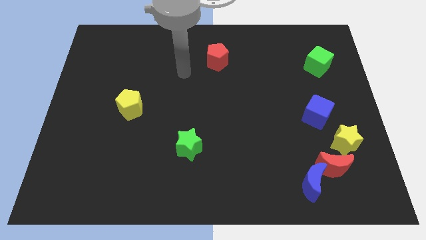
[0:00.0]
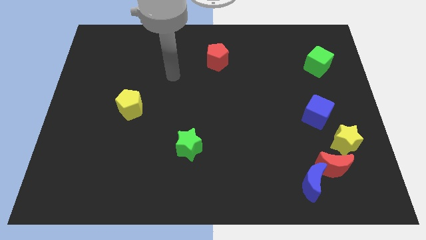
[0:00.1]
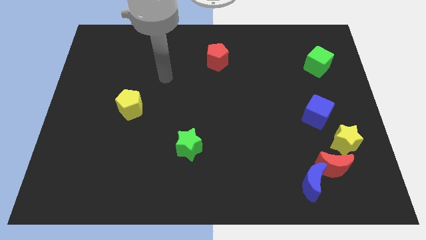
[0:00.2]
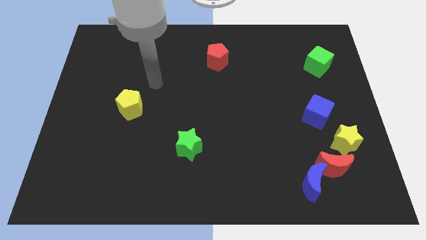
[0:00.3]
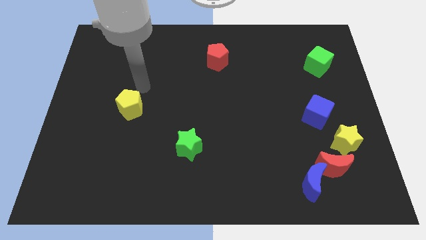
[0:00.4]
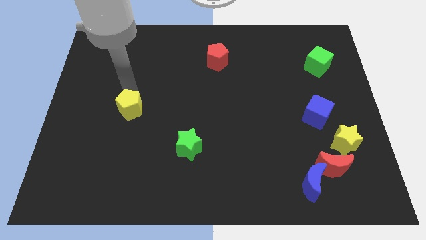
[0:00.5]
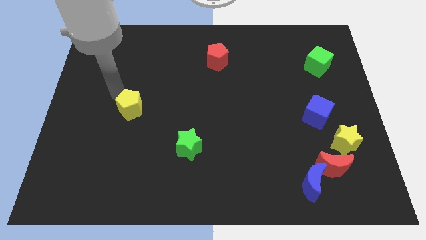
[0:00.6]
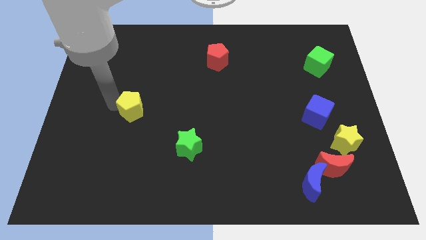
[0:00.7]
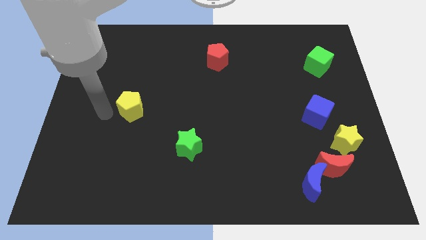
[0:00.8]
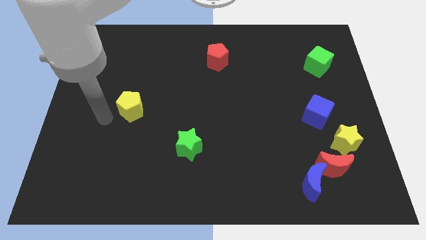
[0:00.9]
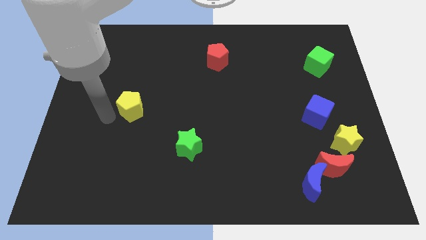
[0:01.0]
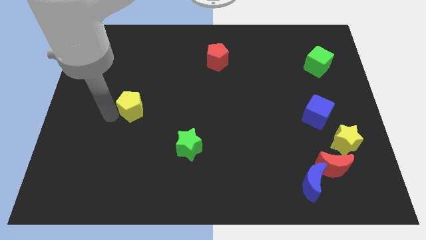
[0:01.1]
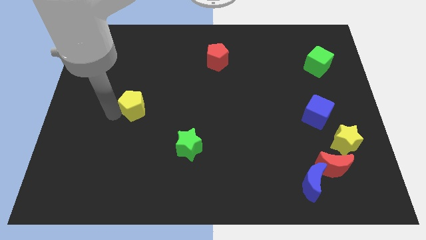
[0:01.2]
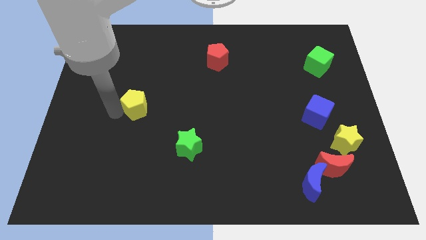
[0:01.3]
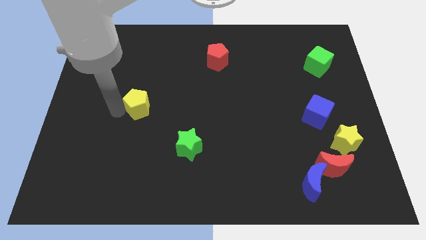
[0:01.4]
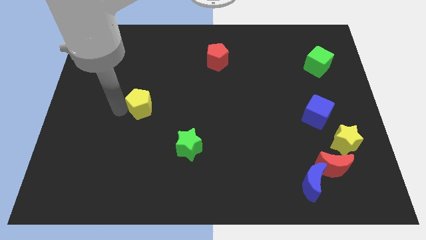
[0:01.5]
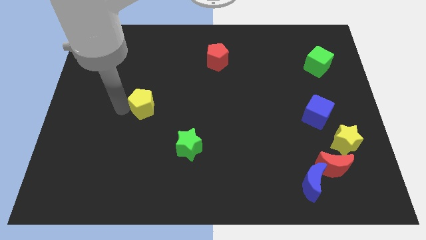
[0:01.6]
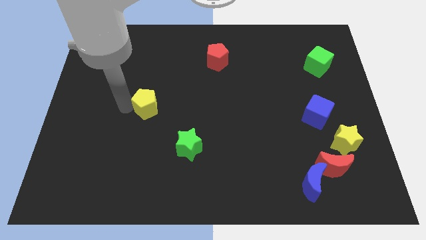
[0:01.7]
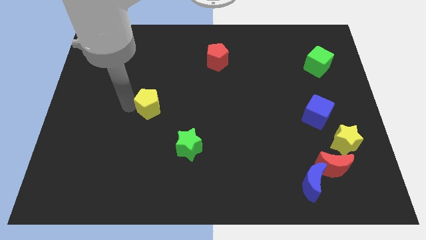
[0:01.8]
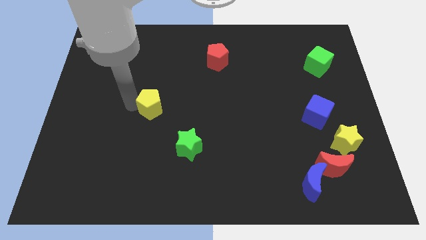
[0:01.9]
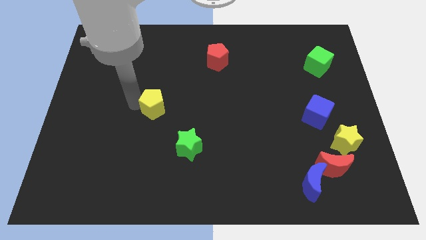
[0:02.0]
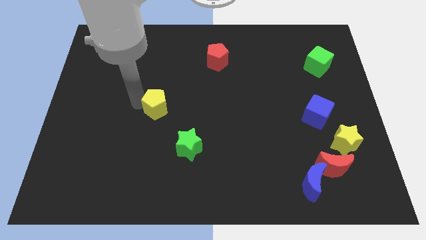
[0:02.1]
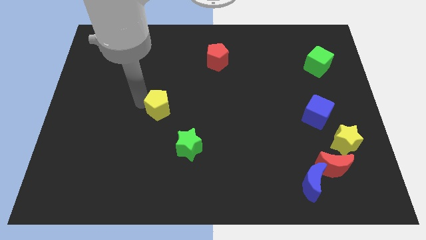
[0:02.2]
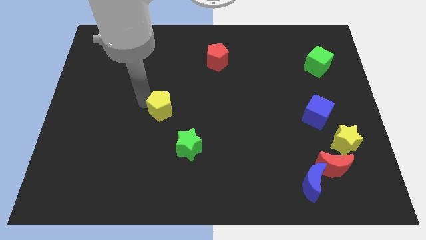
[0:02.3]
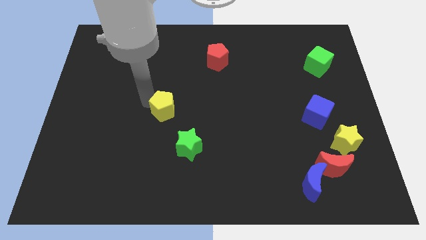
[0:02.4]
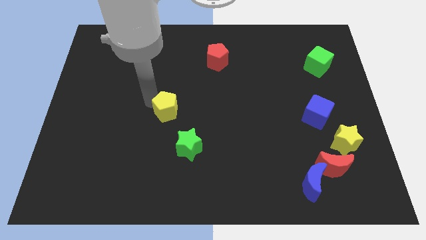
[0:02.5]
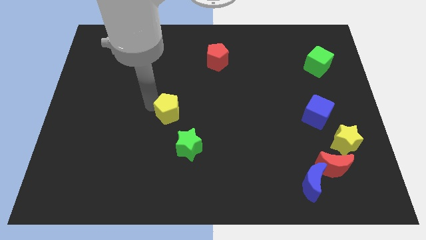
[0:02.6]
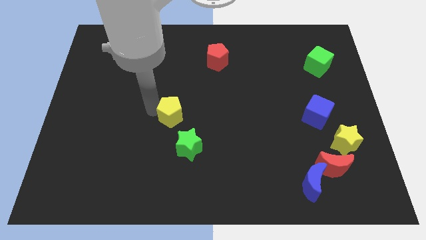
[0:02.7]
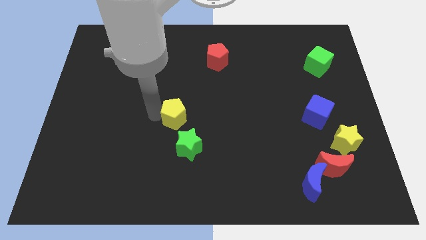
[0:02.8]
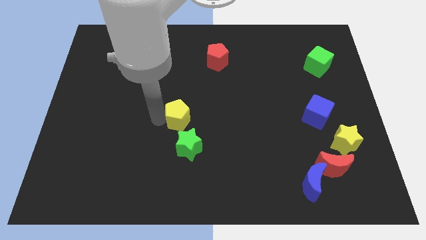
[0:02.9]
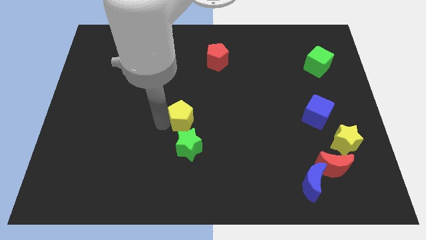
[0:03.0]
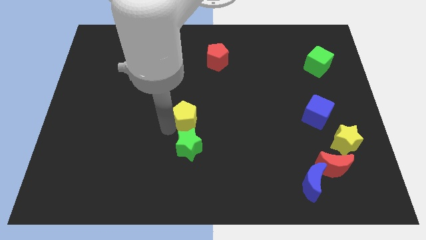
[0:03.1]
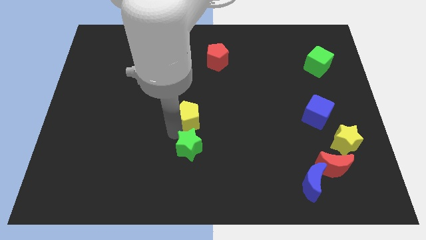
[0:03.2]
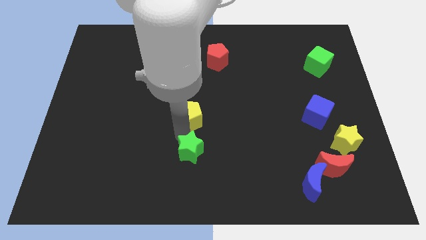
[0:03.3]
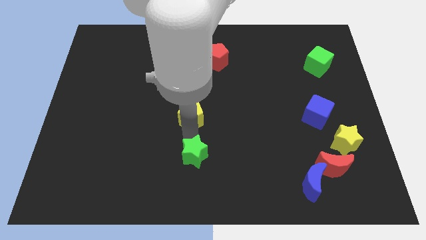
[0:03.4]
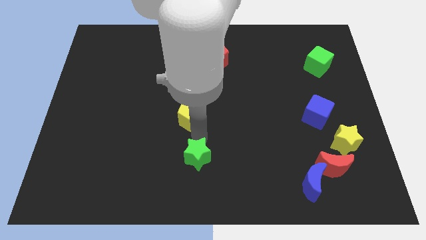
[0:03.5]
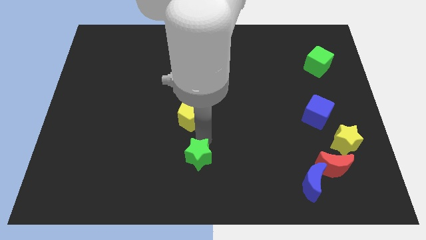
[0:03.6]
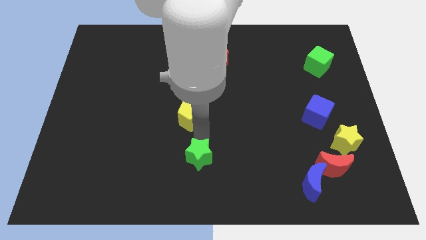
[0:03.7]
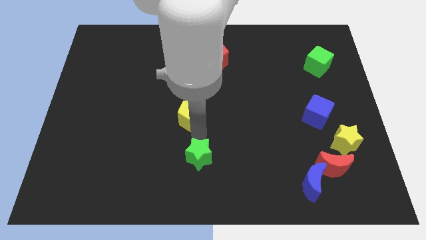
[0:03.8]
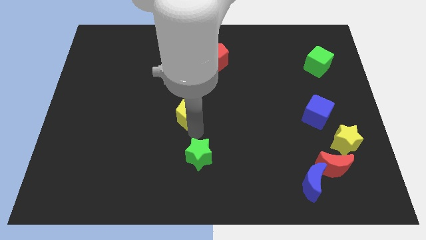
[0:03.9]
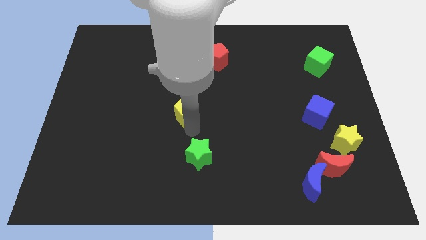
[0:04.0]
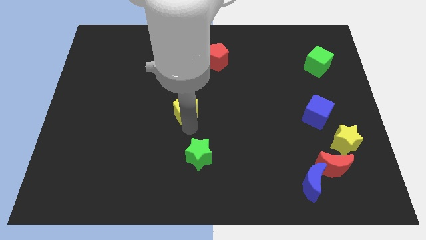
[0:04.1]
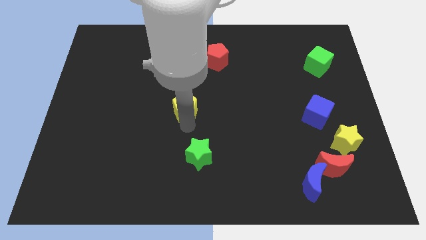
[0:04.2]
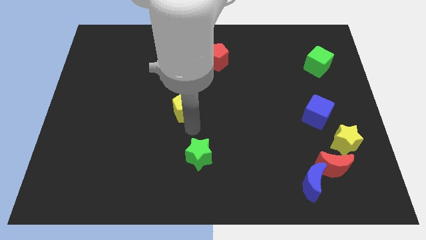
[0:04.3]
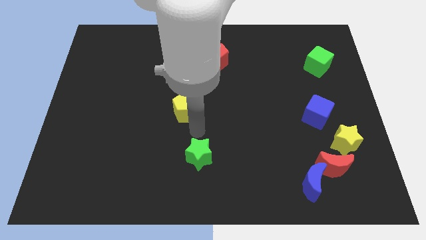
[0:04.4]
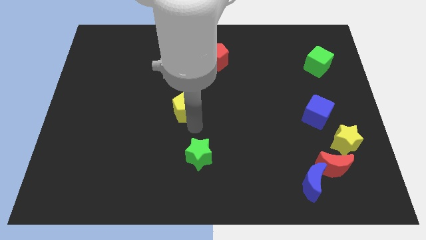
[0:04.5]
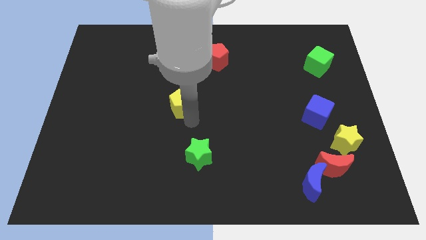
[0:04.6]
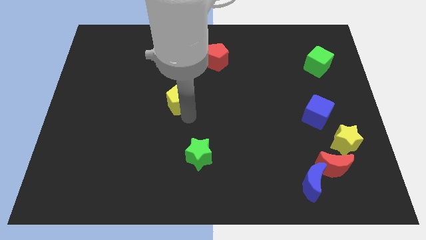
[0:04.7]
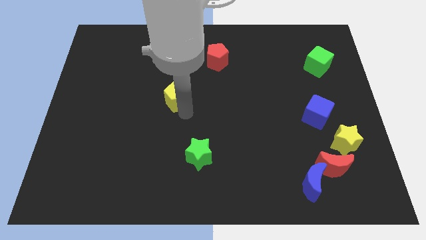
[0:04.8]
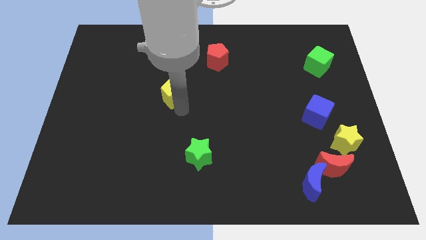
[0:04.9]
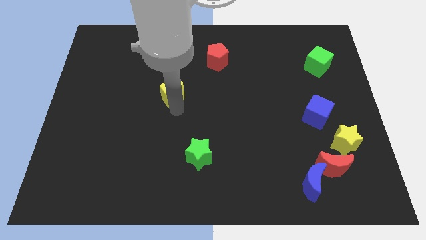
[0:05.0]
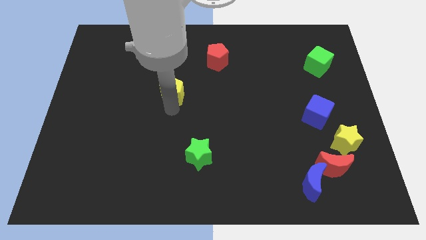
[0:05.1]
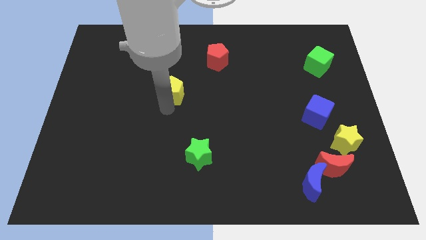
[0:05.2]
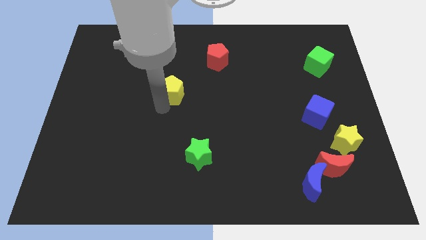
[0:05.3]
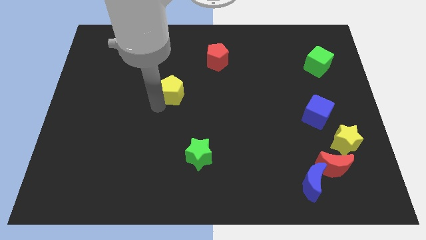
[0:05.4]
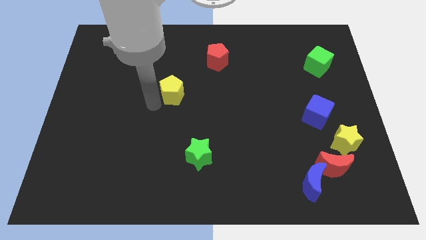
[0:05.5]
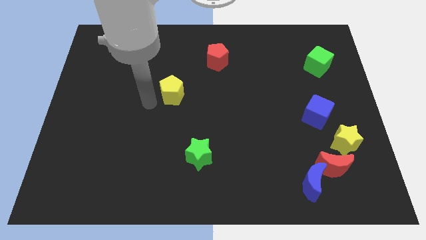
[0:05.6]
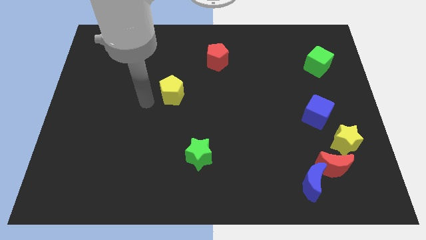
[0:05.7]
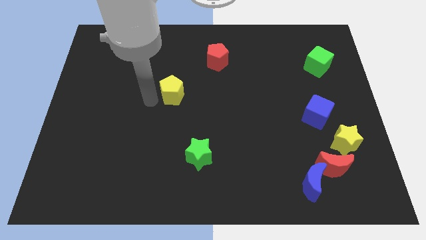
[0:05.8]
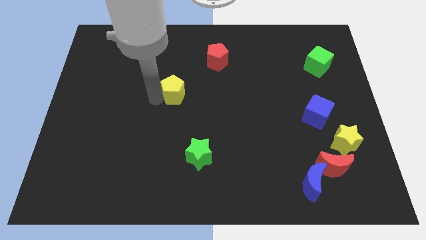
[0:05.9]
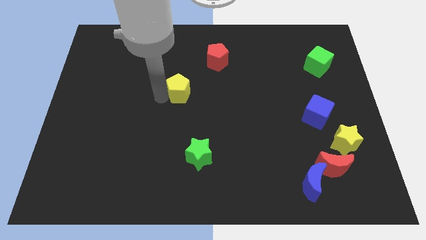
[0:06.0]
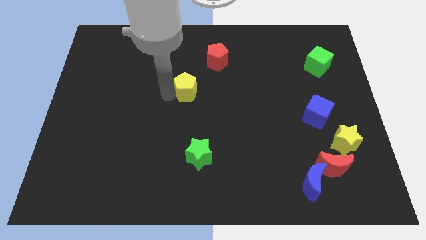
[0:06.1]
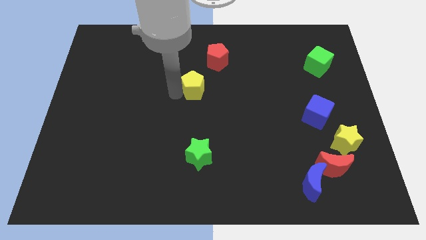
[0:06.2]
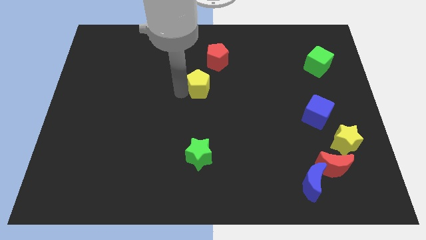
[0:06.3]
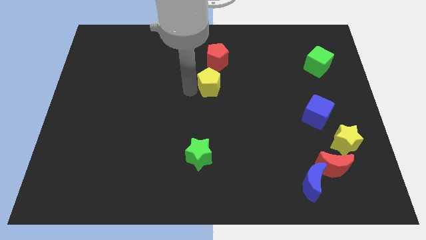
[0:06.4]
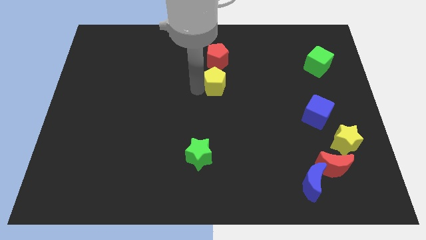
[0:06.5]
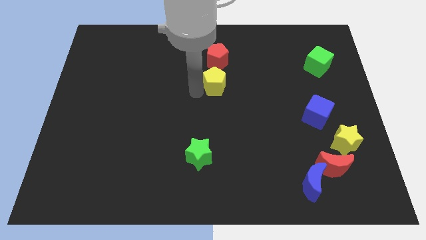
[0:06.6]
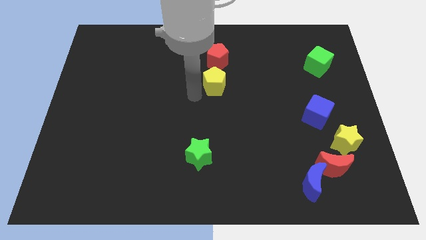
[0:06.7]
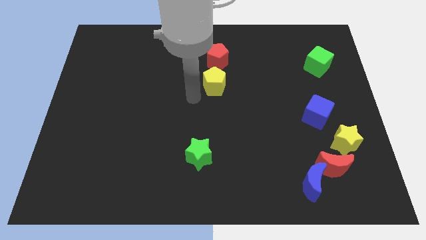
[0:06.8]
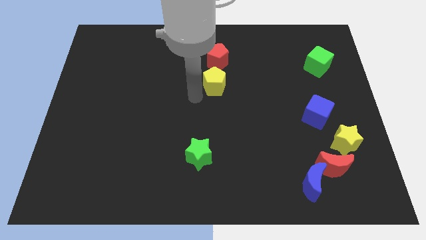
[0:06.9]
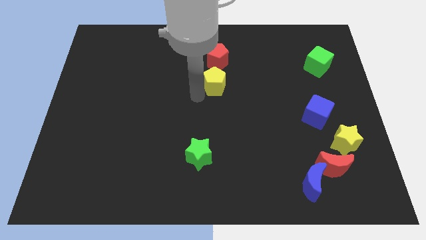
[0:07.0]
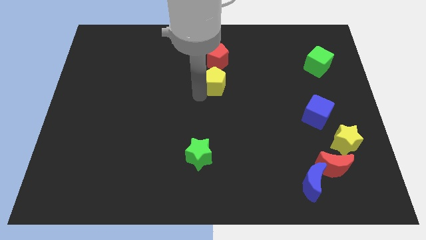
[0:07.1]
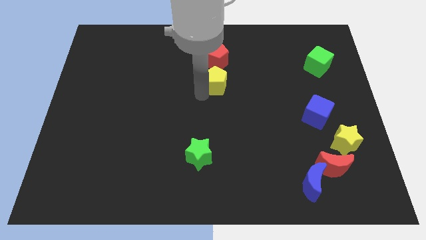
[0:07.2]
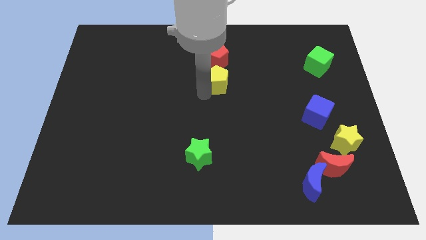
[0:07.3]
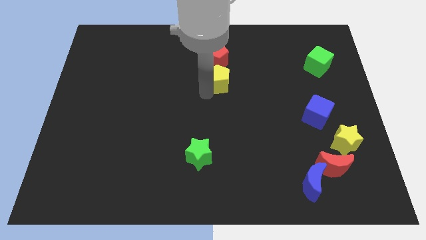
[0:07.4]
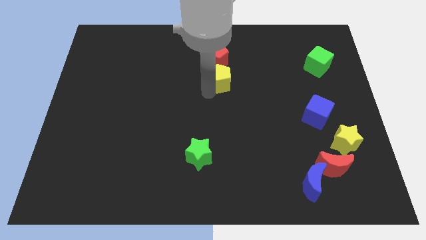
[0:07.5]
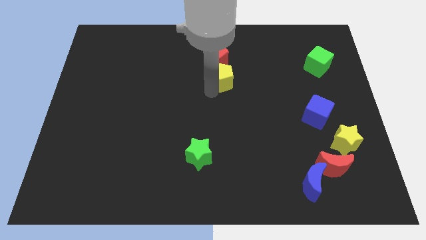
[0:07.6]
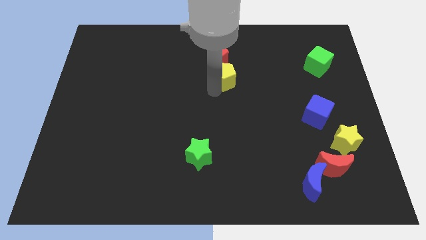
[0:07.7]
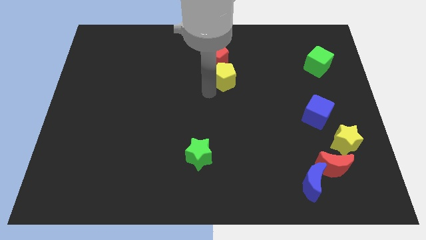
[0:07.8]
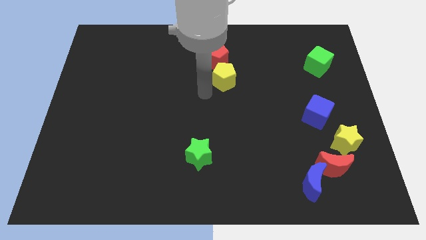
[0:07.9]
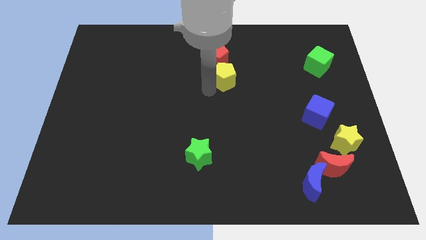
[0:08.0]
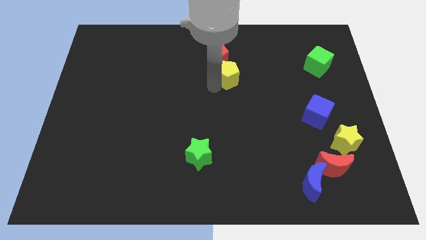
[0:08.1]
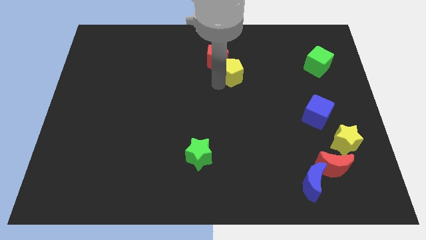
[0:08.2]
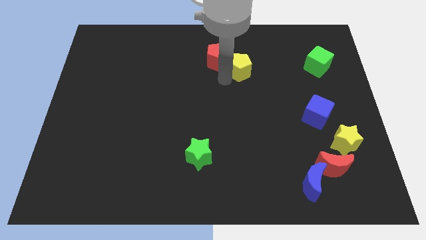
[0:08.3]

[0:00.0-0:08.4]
slide the yellow pentagon to the right of the red pentagon
